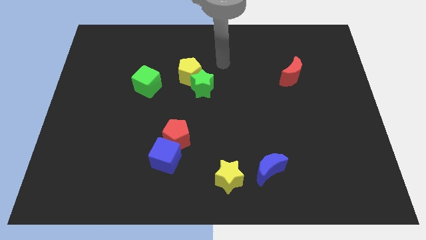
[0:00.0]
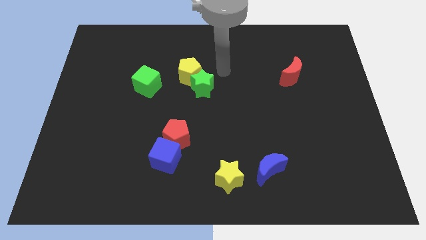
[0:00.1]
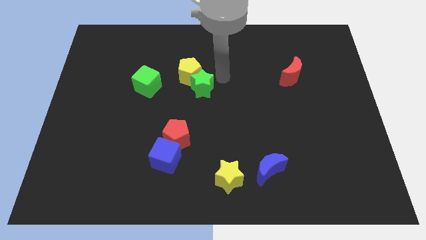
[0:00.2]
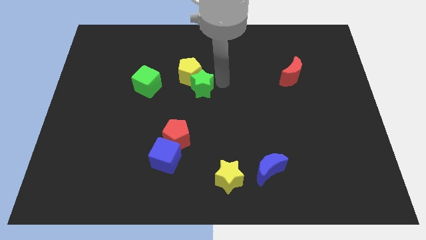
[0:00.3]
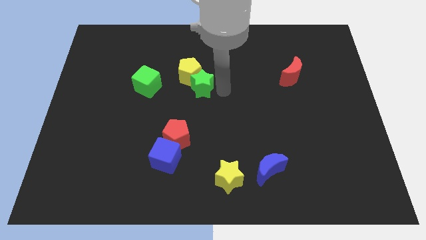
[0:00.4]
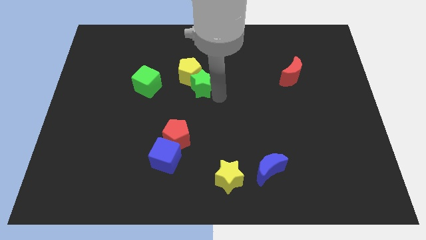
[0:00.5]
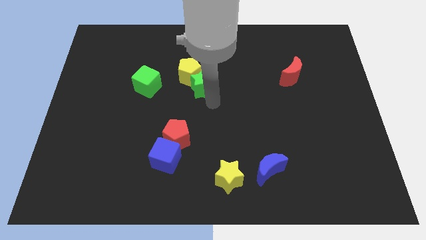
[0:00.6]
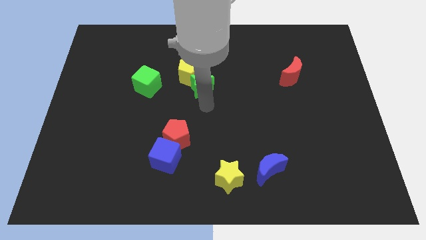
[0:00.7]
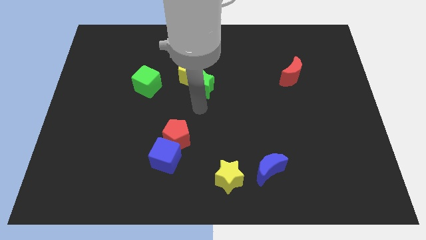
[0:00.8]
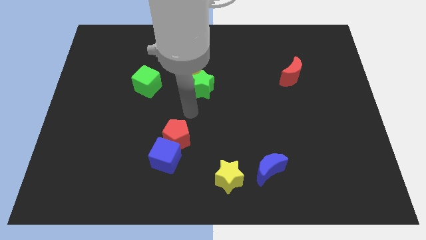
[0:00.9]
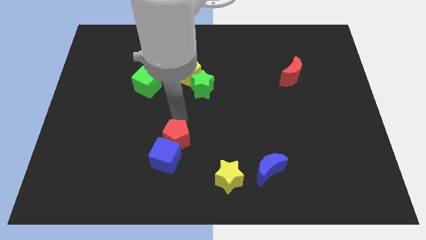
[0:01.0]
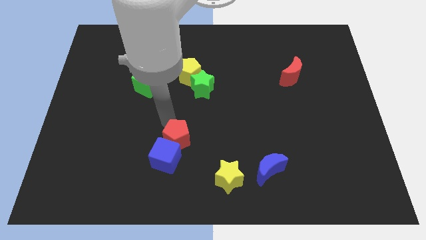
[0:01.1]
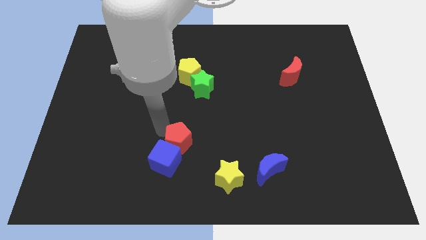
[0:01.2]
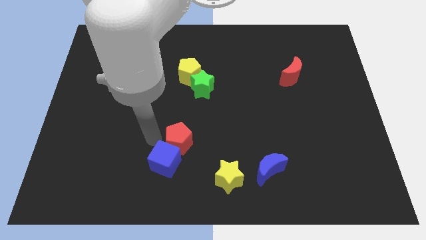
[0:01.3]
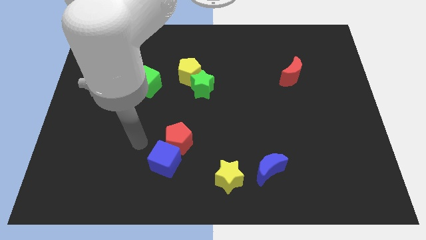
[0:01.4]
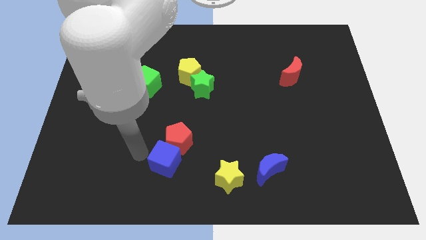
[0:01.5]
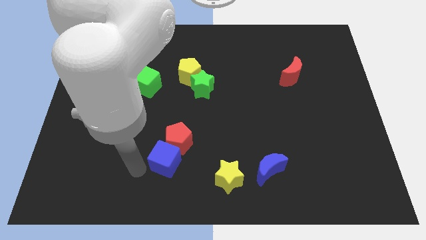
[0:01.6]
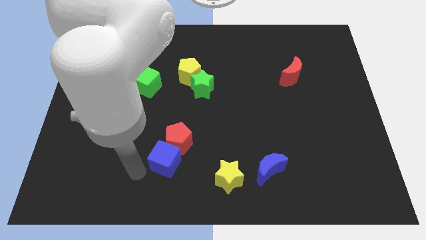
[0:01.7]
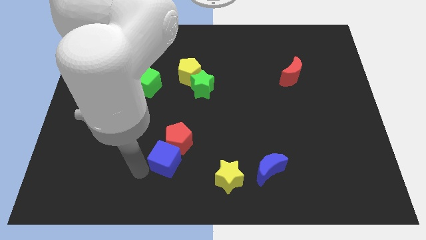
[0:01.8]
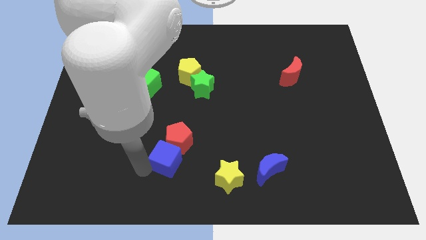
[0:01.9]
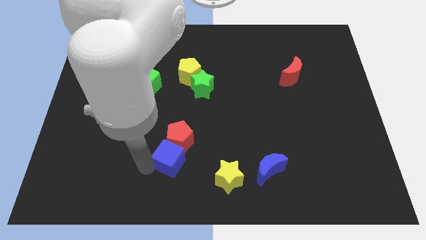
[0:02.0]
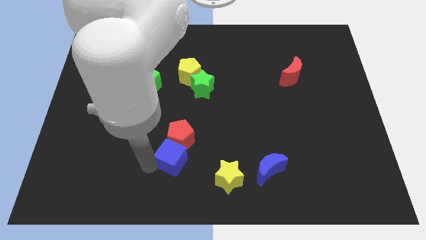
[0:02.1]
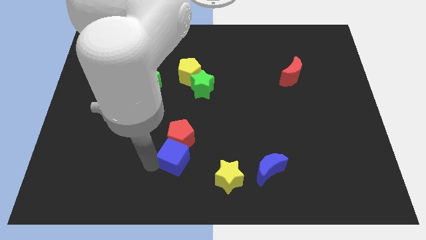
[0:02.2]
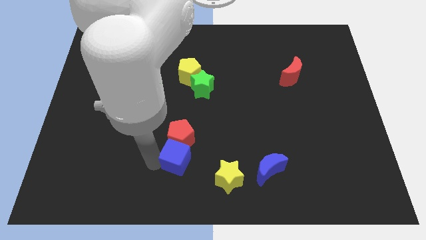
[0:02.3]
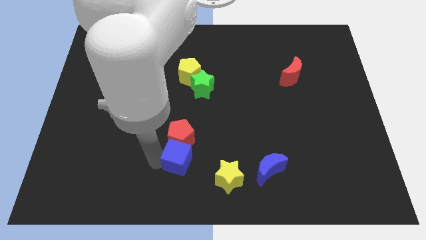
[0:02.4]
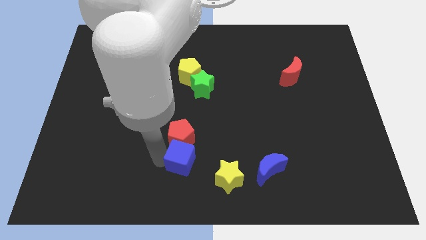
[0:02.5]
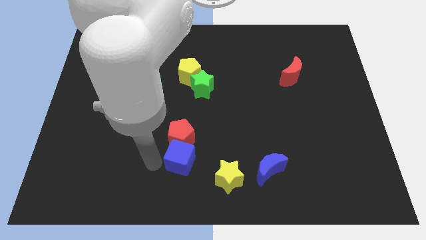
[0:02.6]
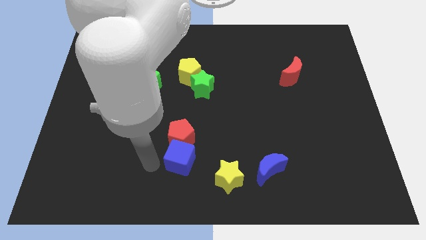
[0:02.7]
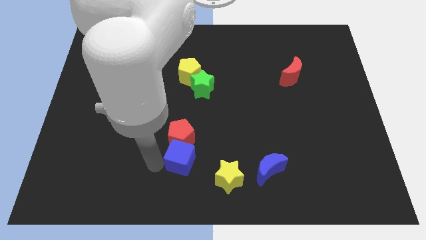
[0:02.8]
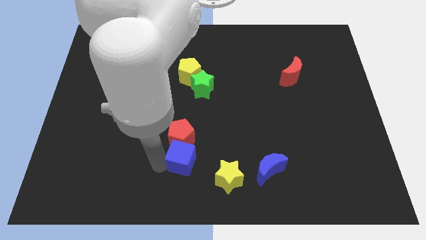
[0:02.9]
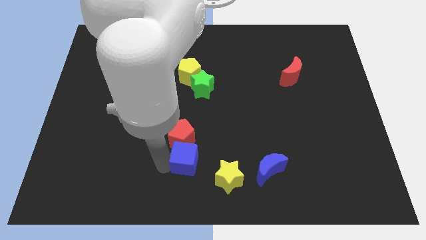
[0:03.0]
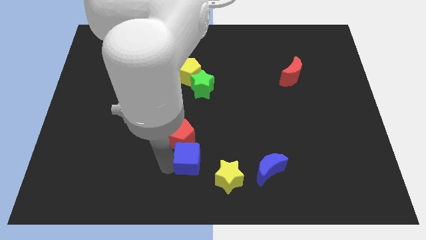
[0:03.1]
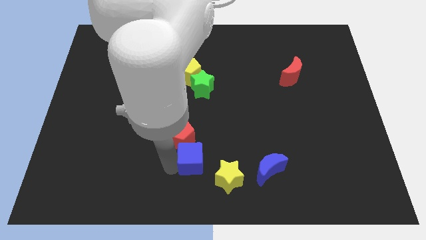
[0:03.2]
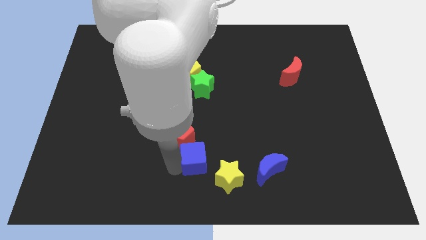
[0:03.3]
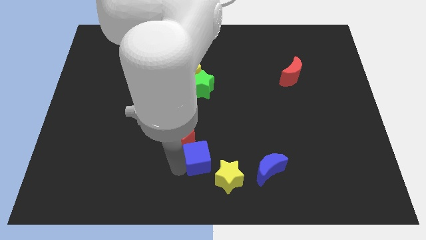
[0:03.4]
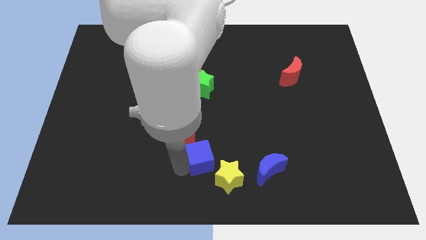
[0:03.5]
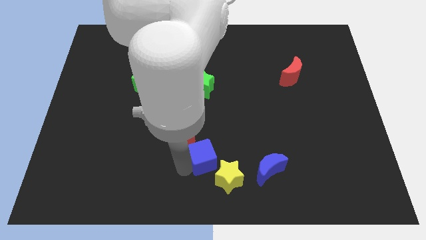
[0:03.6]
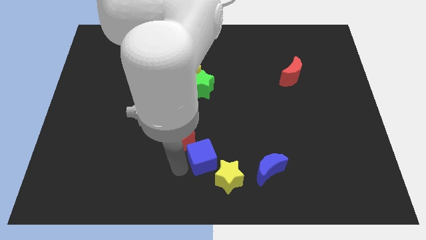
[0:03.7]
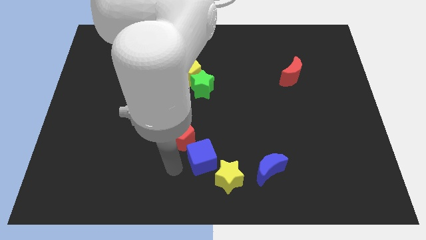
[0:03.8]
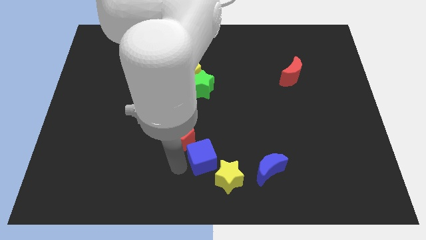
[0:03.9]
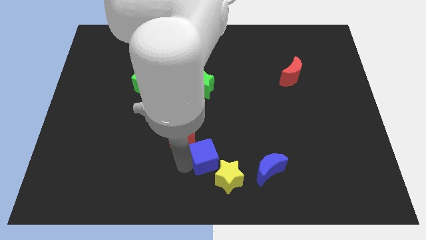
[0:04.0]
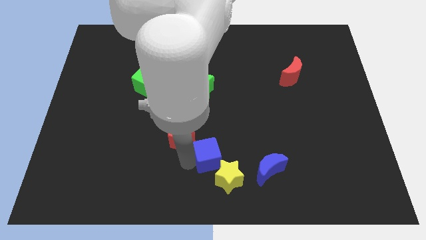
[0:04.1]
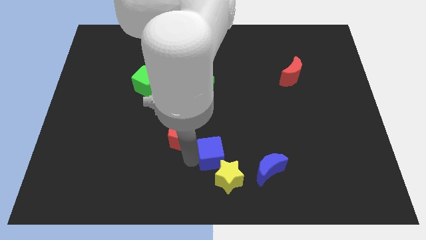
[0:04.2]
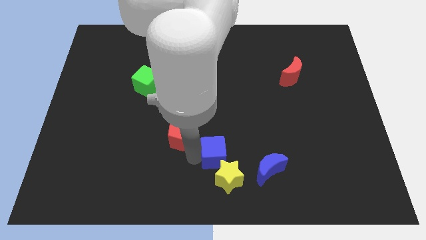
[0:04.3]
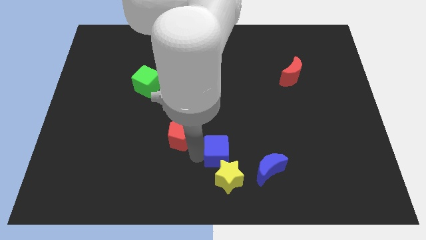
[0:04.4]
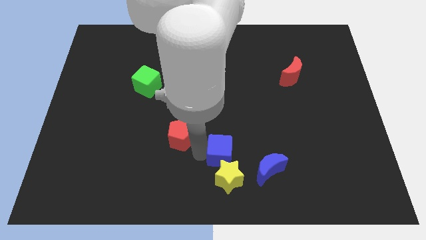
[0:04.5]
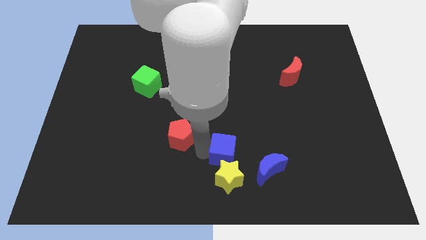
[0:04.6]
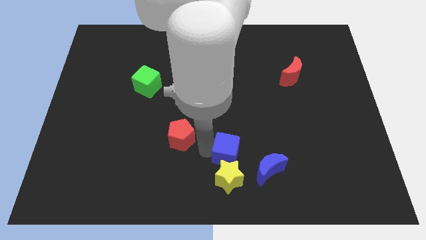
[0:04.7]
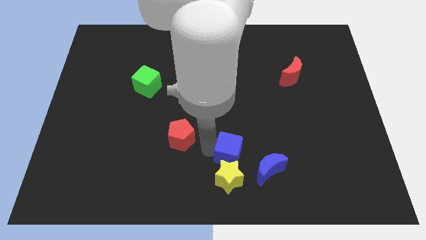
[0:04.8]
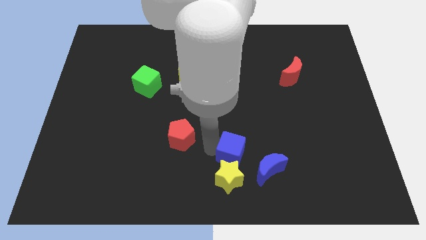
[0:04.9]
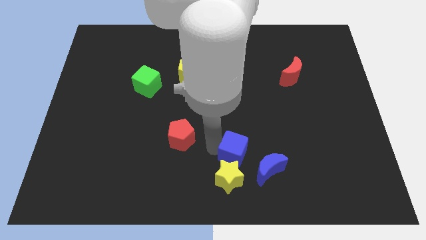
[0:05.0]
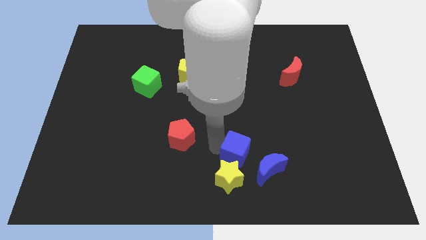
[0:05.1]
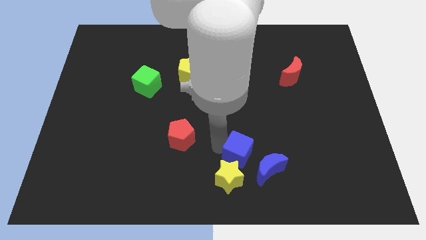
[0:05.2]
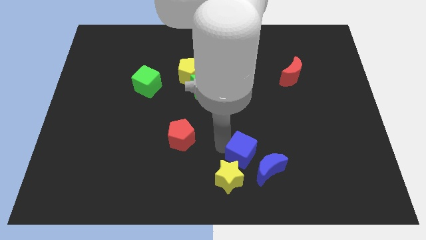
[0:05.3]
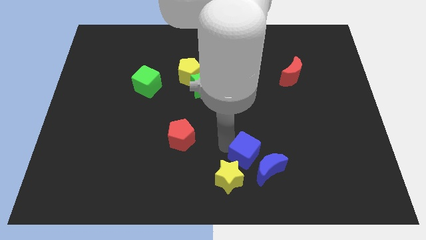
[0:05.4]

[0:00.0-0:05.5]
move the blue cube close to the blue moon

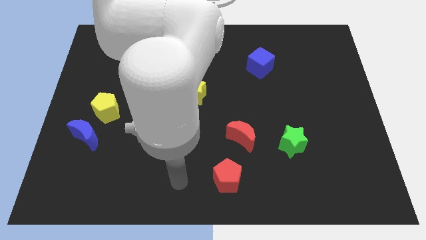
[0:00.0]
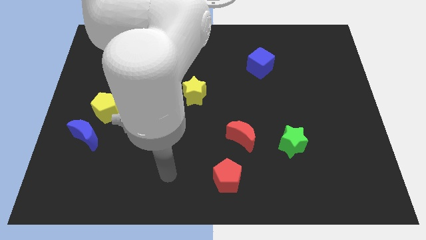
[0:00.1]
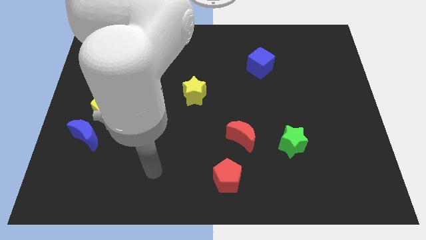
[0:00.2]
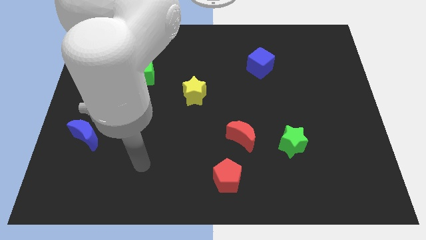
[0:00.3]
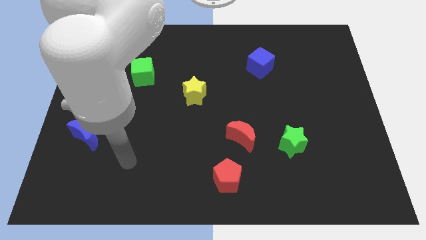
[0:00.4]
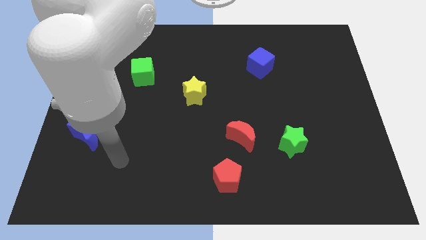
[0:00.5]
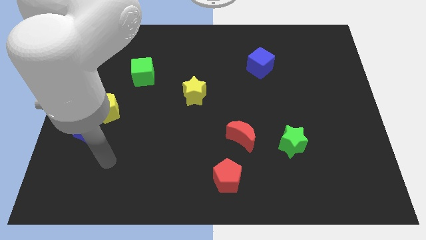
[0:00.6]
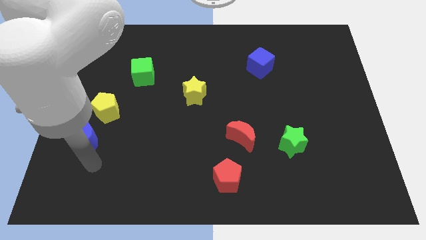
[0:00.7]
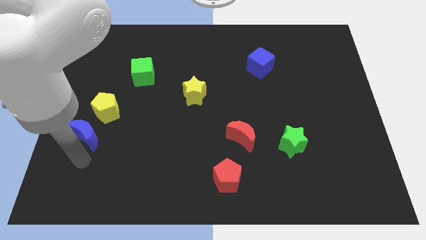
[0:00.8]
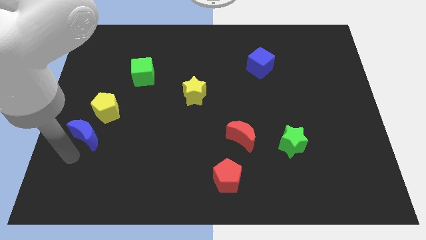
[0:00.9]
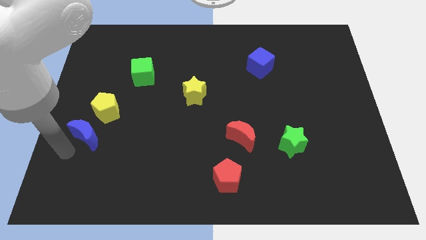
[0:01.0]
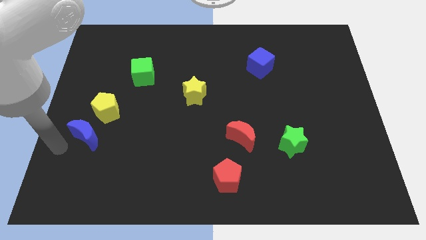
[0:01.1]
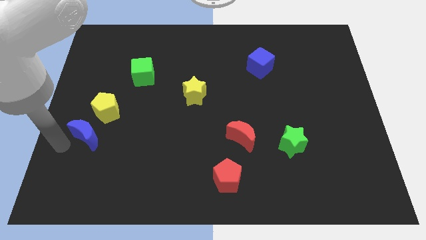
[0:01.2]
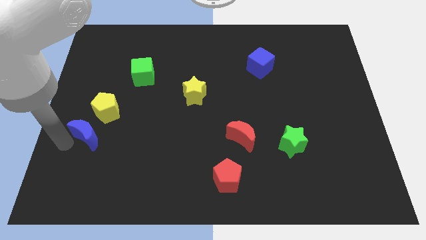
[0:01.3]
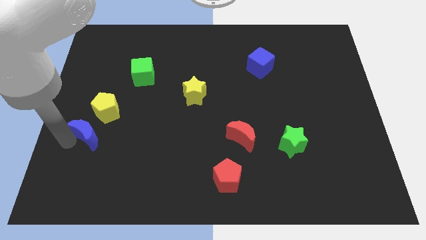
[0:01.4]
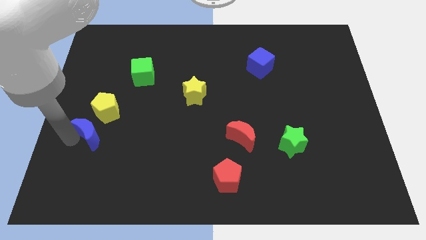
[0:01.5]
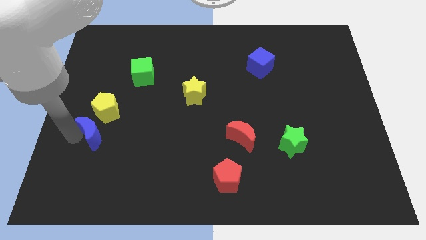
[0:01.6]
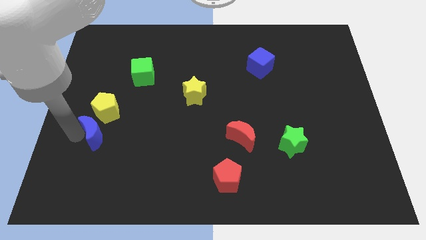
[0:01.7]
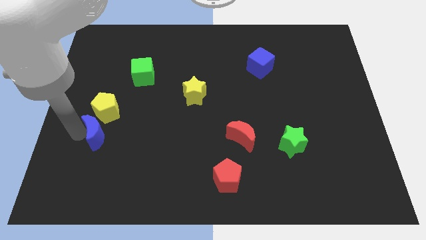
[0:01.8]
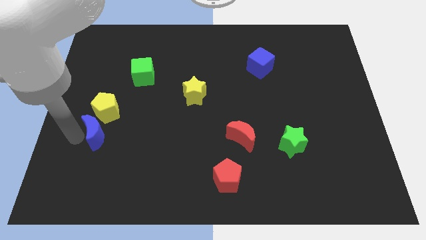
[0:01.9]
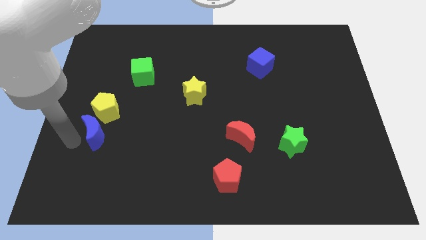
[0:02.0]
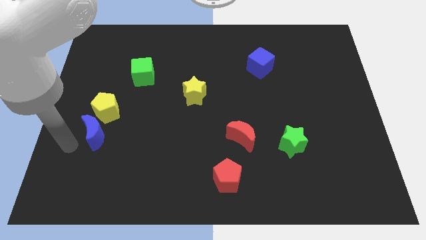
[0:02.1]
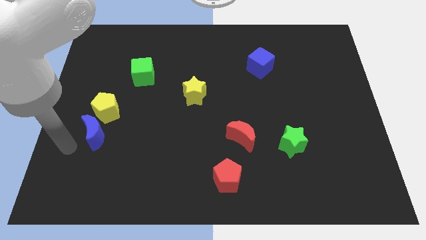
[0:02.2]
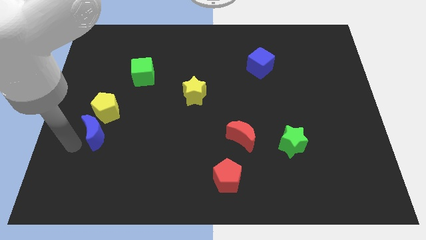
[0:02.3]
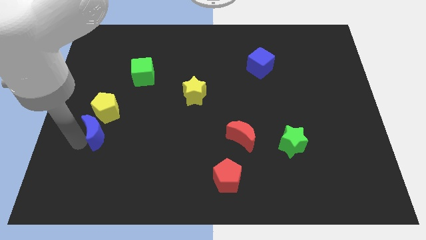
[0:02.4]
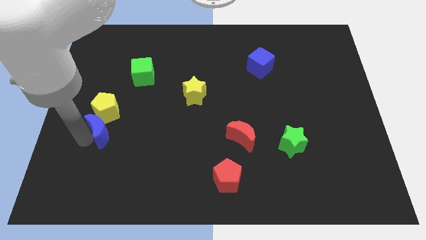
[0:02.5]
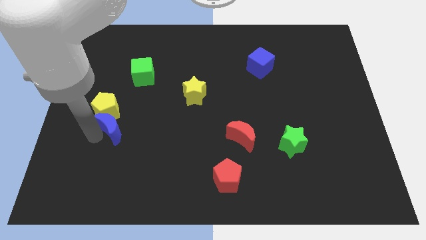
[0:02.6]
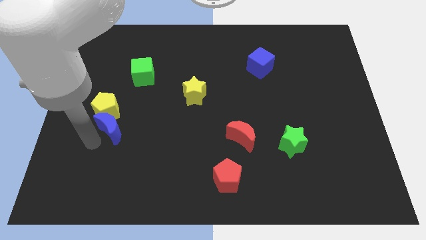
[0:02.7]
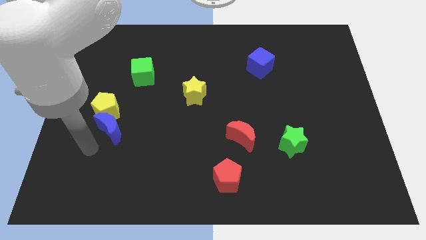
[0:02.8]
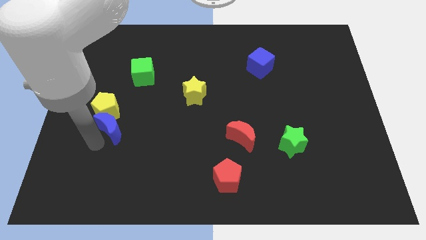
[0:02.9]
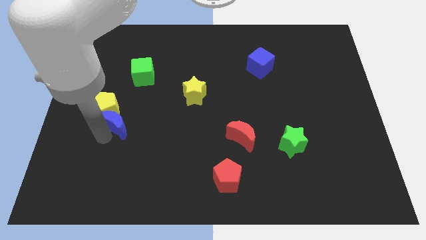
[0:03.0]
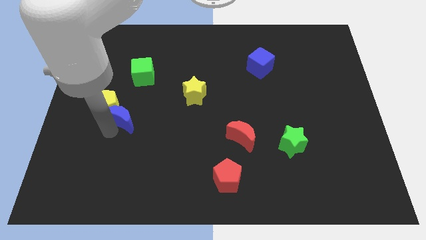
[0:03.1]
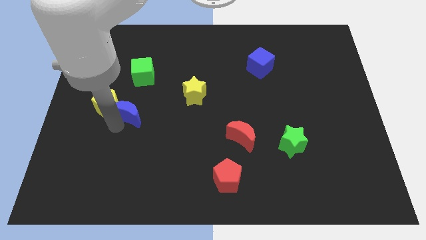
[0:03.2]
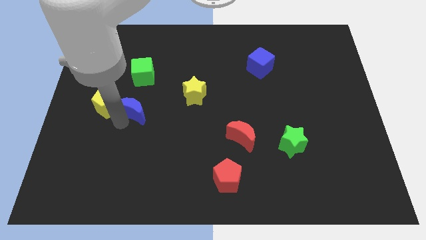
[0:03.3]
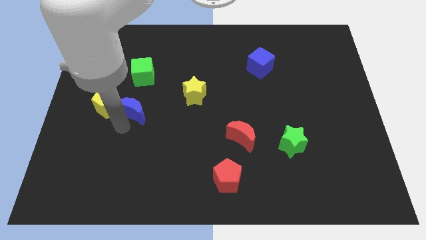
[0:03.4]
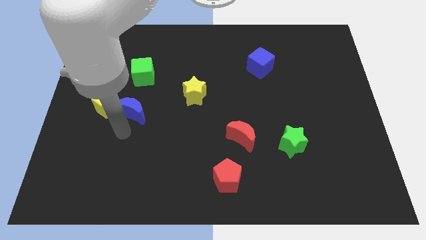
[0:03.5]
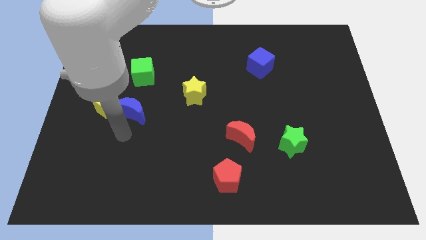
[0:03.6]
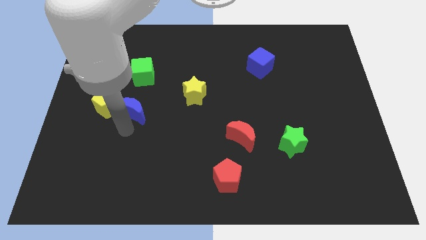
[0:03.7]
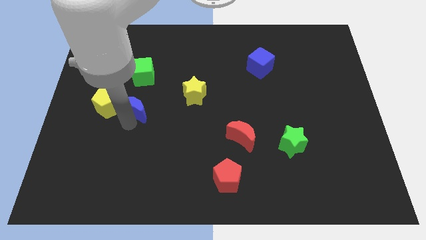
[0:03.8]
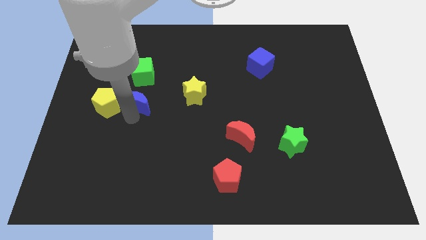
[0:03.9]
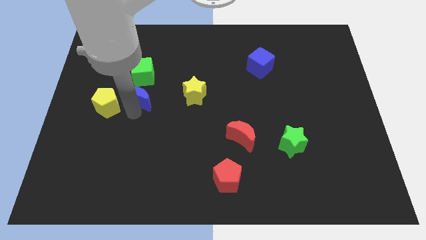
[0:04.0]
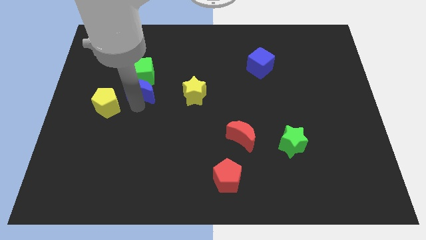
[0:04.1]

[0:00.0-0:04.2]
push the blue moon to the green cube
